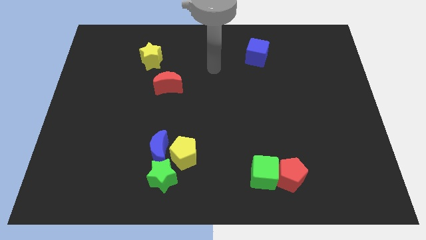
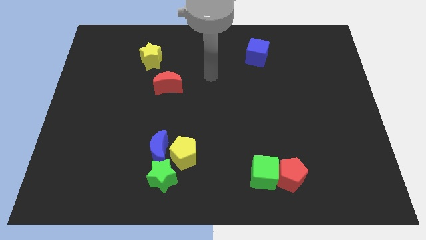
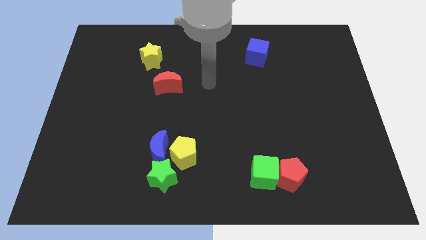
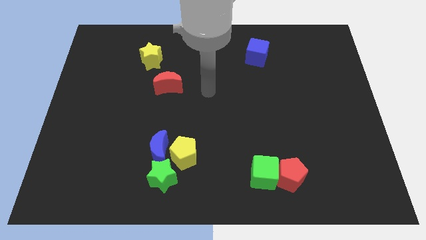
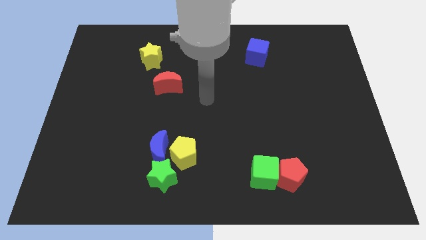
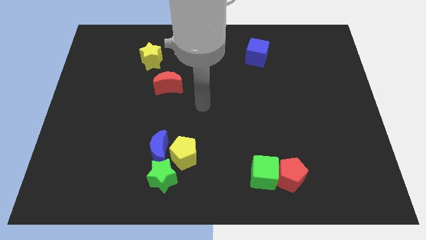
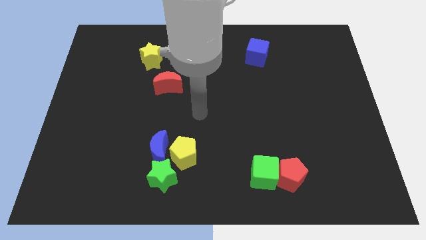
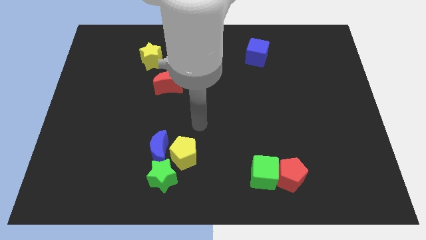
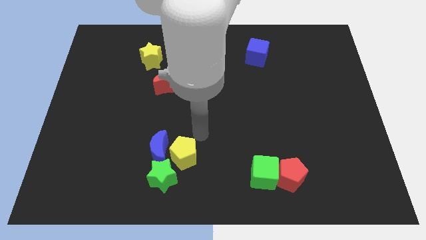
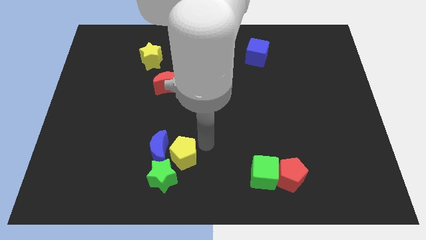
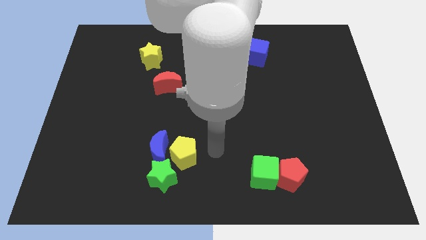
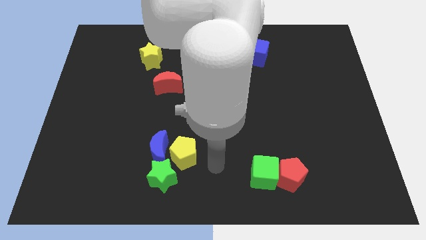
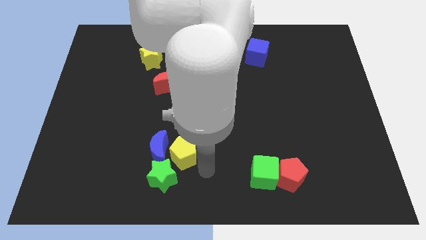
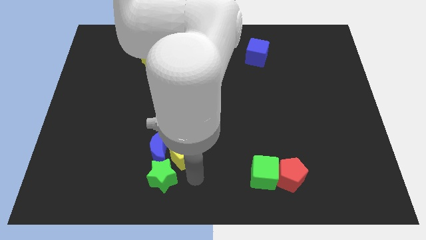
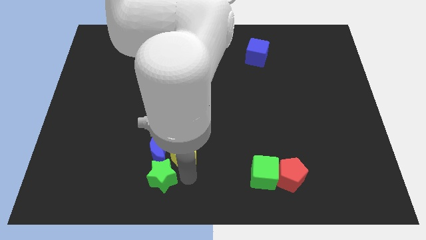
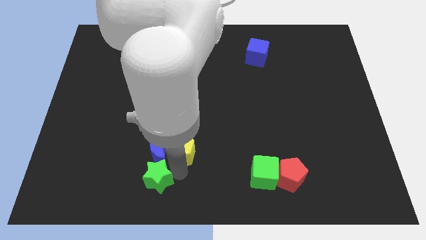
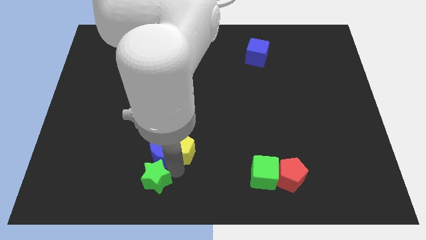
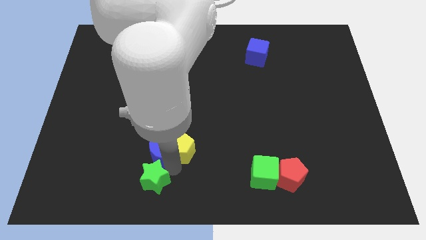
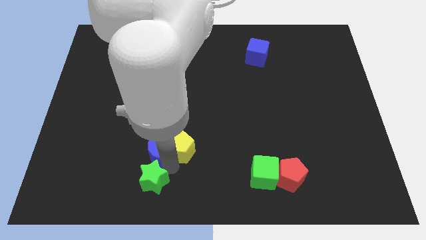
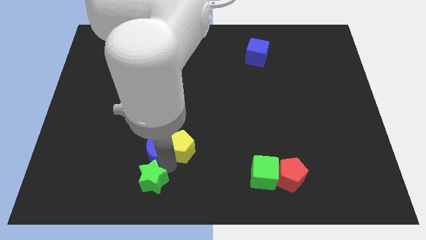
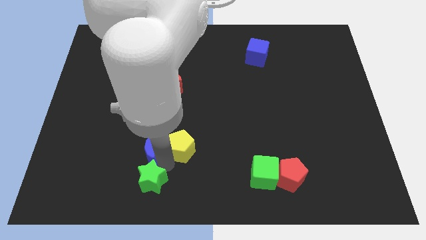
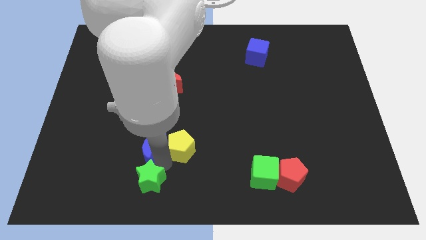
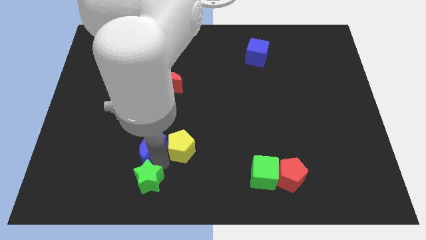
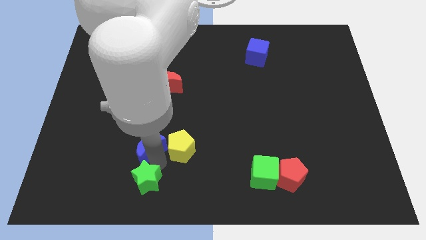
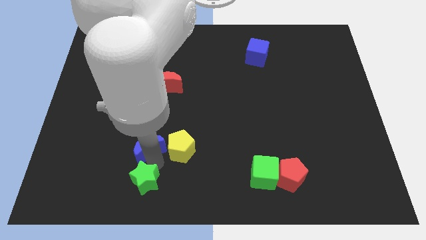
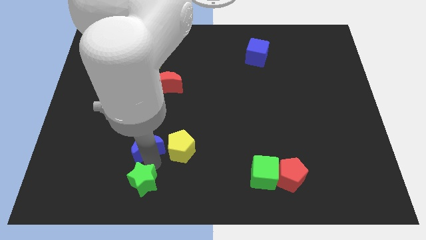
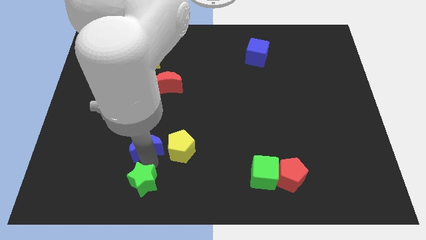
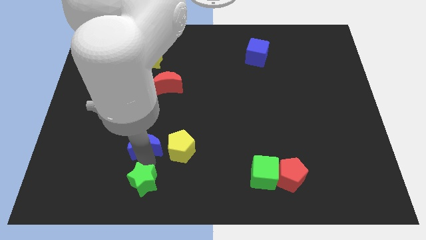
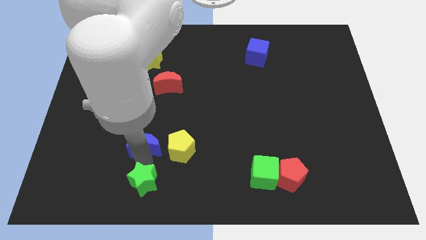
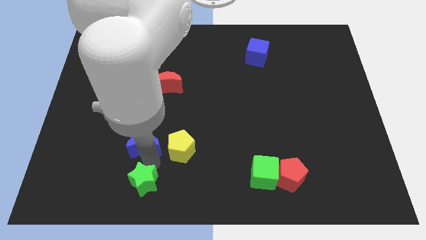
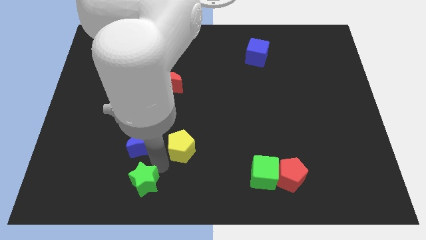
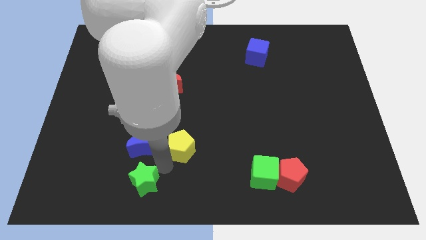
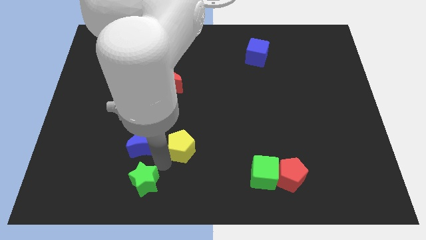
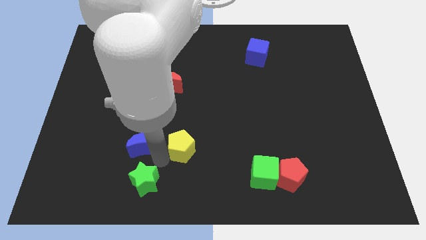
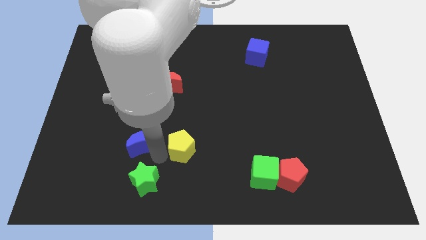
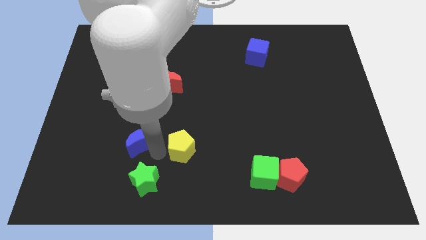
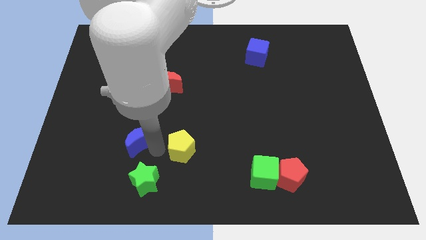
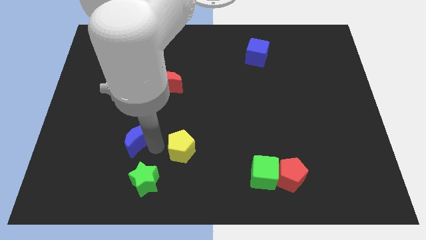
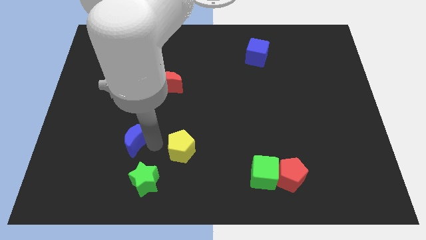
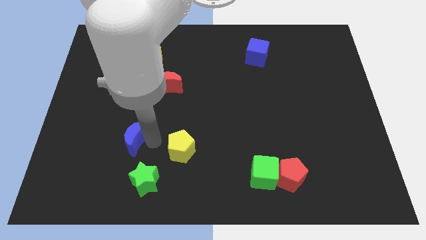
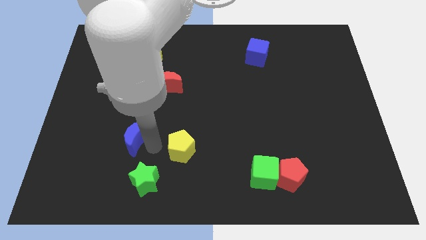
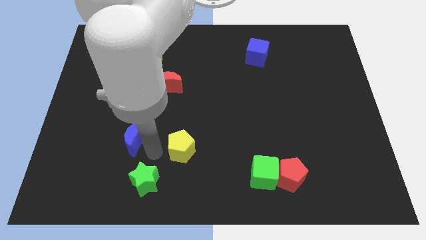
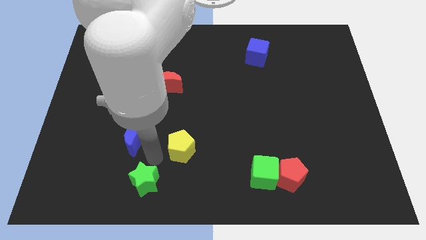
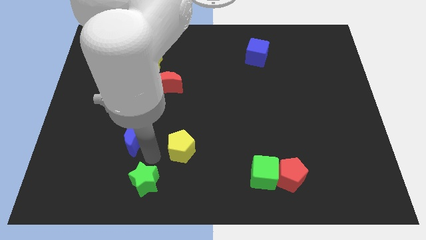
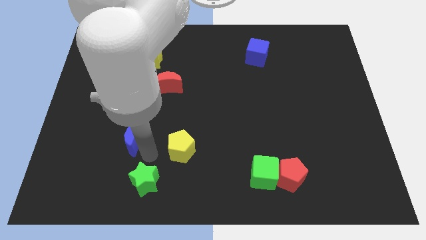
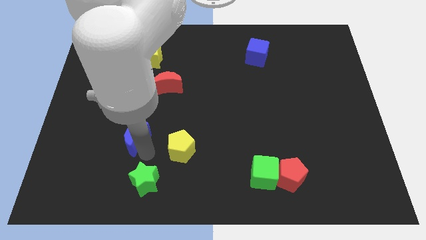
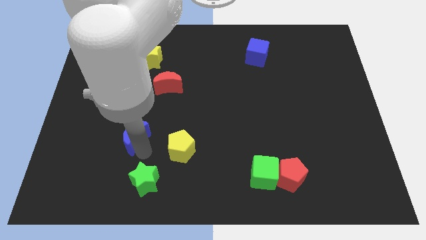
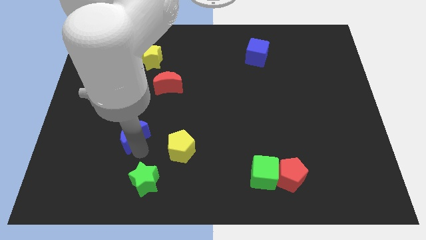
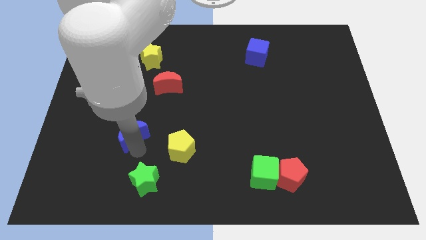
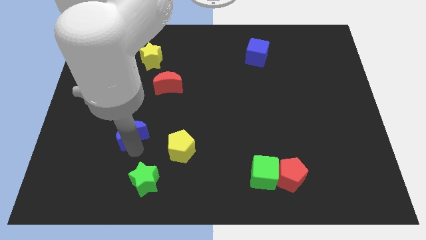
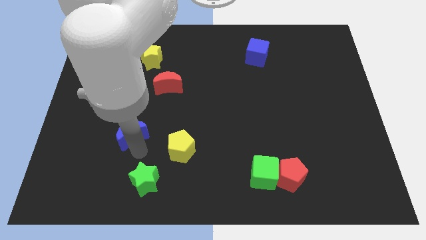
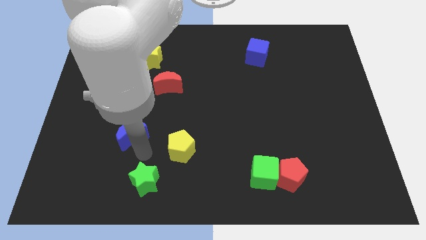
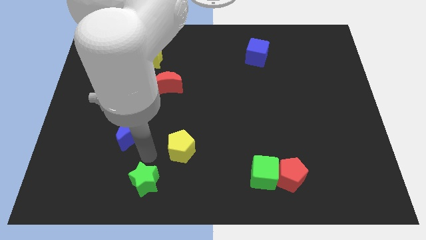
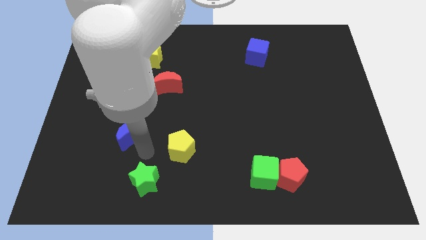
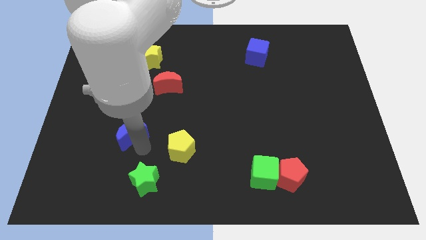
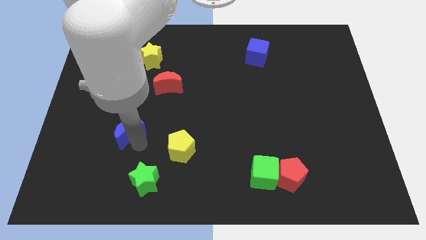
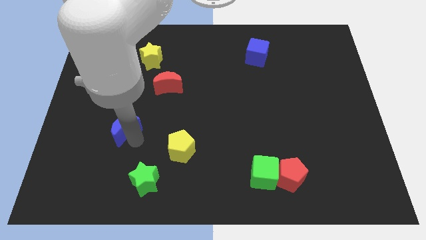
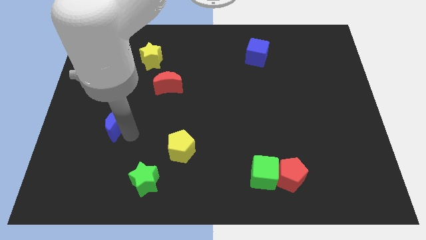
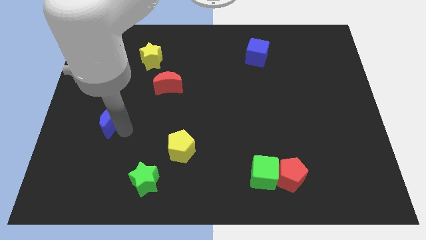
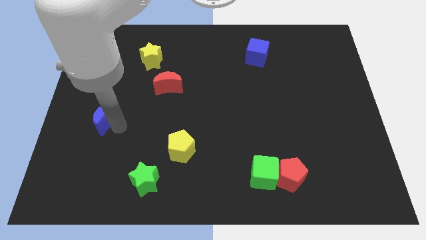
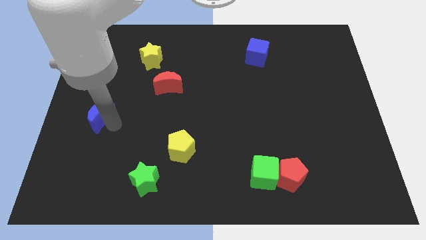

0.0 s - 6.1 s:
slide the blue moon to the left side
